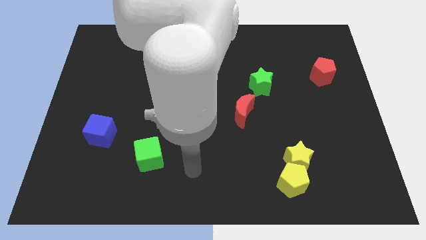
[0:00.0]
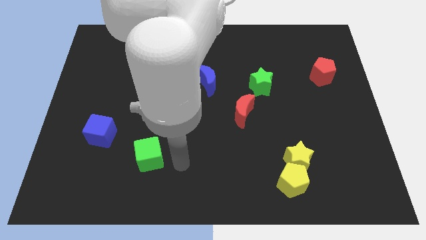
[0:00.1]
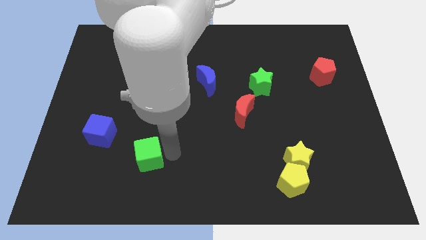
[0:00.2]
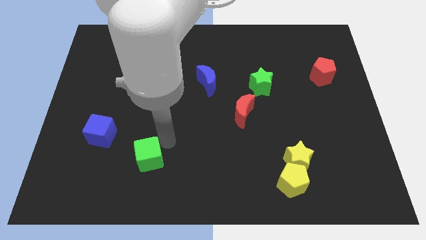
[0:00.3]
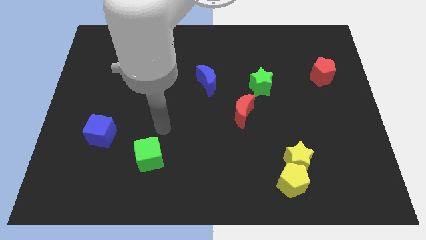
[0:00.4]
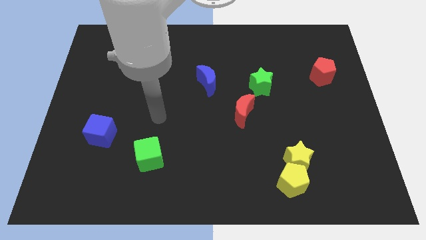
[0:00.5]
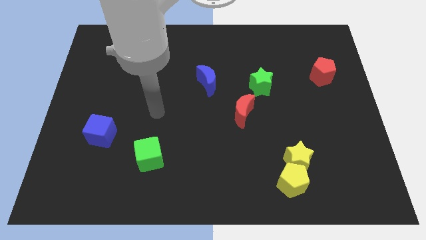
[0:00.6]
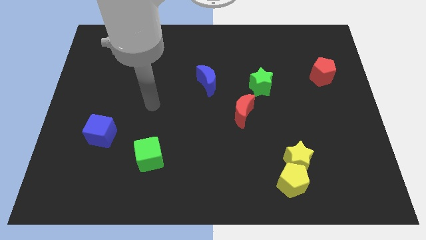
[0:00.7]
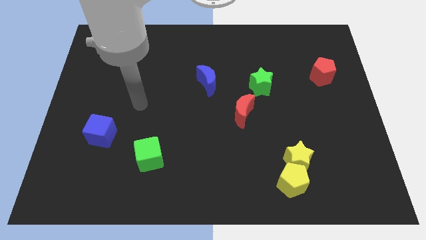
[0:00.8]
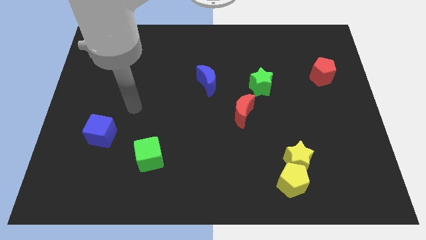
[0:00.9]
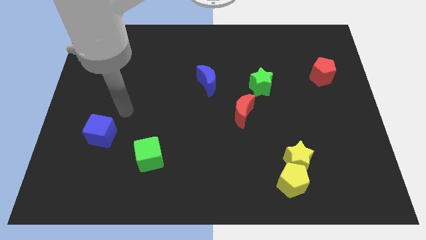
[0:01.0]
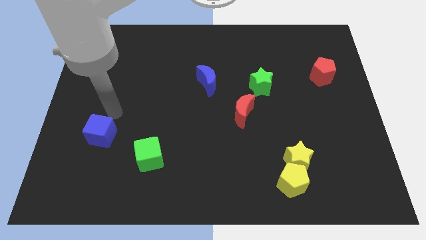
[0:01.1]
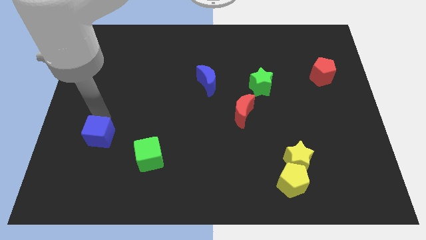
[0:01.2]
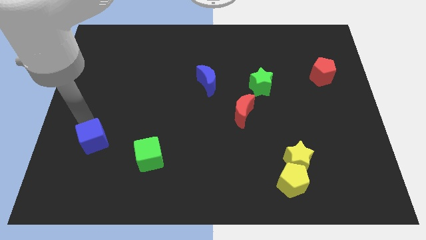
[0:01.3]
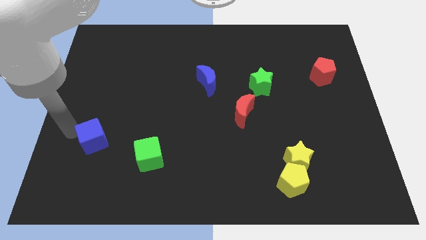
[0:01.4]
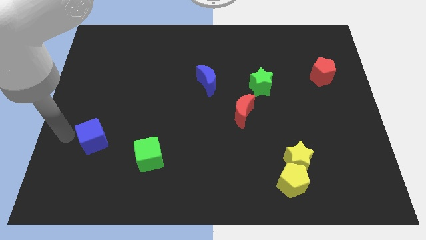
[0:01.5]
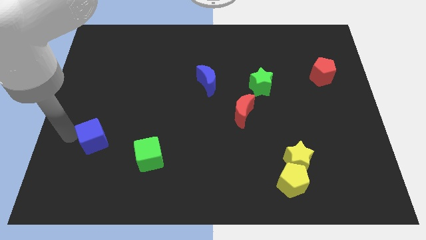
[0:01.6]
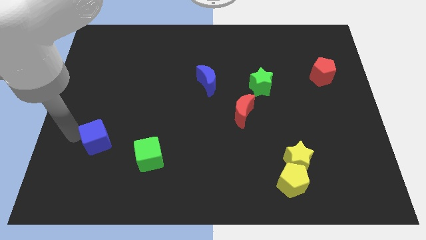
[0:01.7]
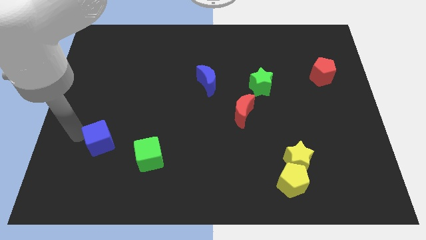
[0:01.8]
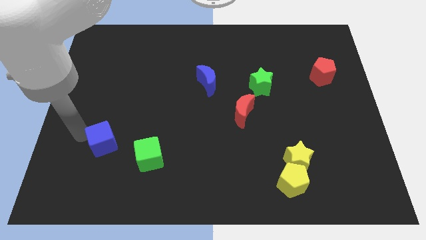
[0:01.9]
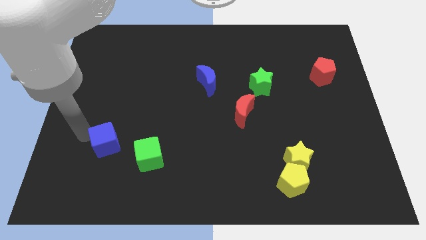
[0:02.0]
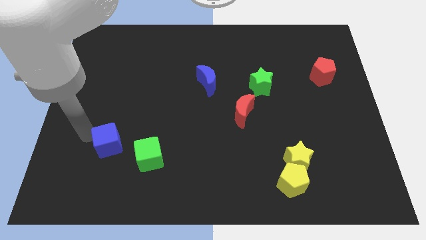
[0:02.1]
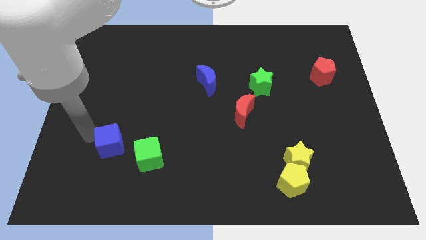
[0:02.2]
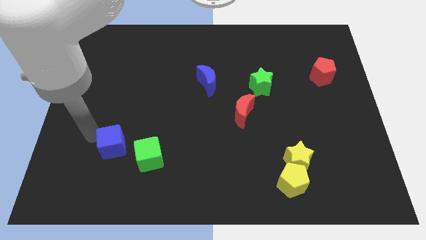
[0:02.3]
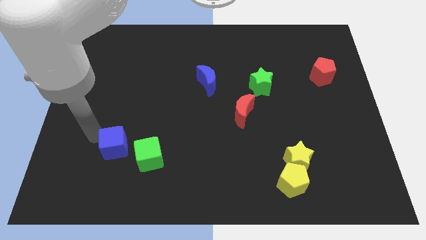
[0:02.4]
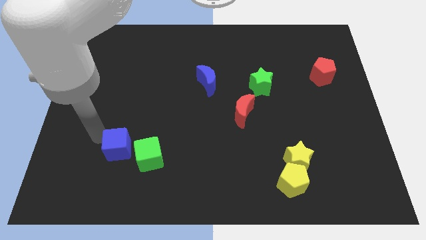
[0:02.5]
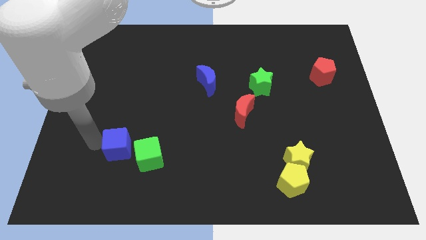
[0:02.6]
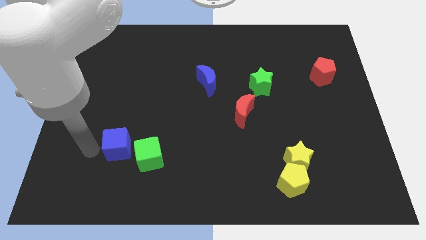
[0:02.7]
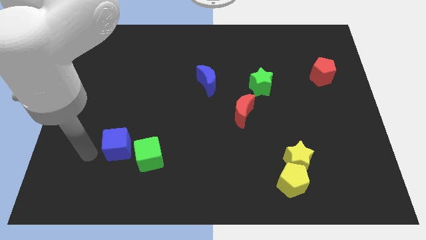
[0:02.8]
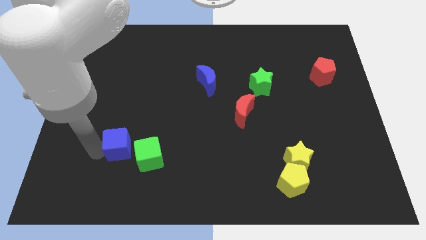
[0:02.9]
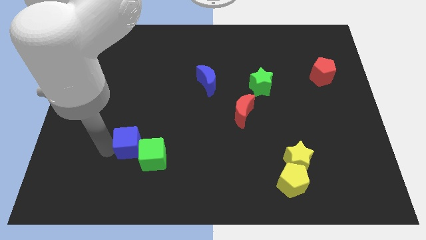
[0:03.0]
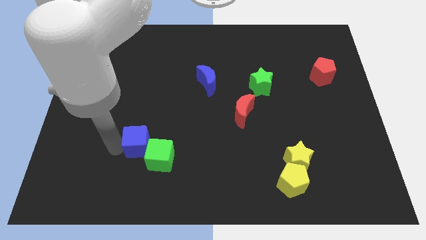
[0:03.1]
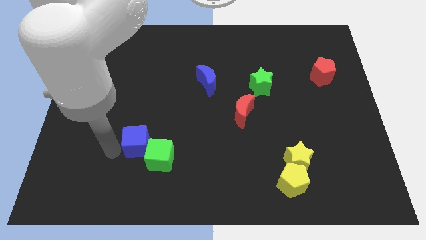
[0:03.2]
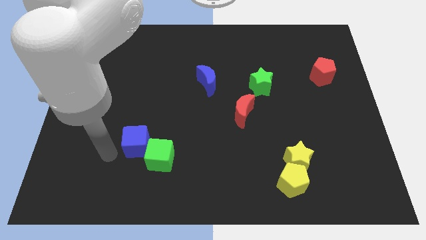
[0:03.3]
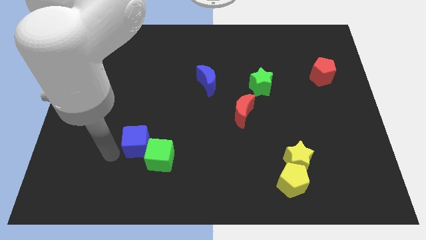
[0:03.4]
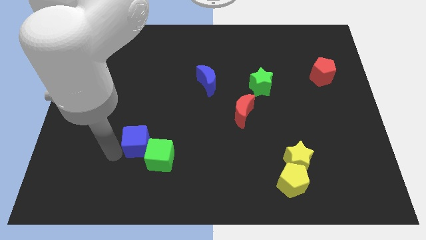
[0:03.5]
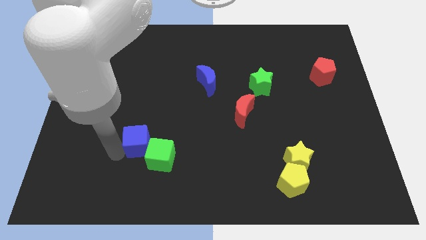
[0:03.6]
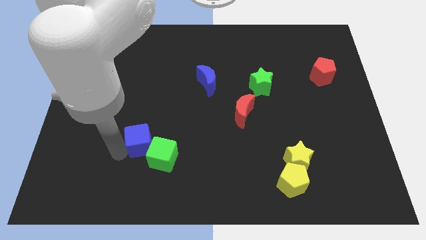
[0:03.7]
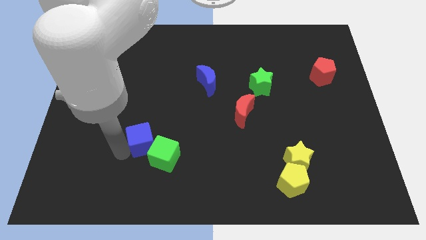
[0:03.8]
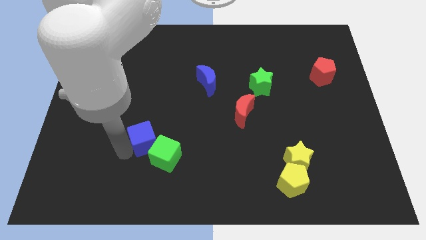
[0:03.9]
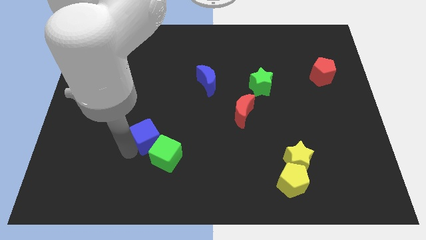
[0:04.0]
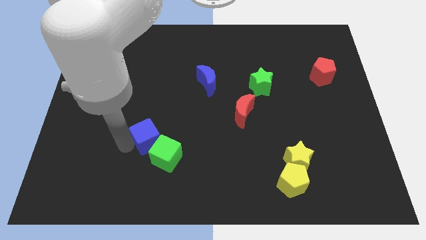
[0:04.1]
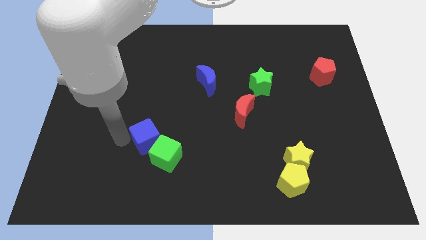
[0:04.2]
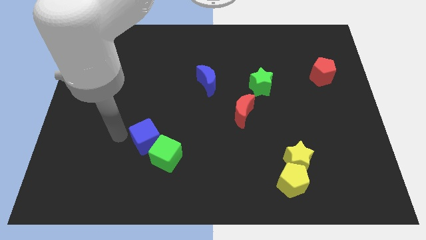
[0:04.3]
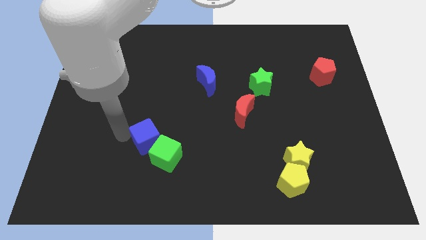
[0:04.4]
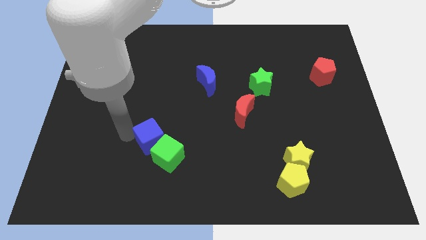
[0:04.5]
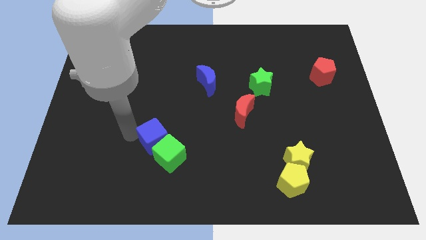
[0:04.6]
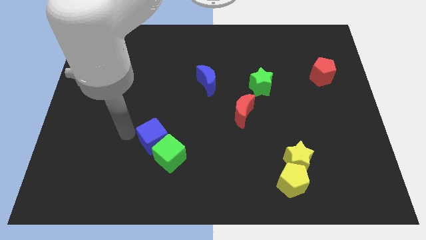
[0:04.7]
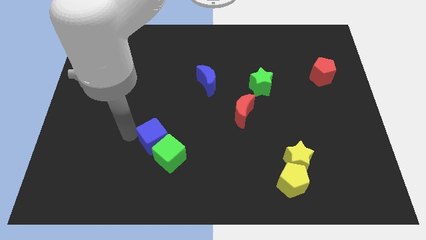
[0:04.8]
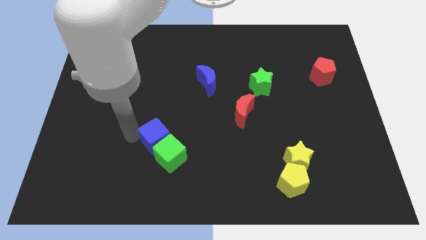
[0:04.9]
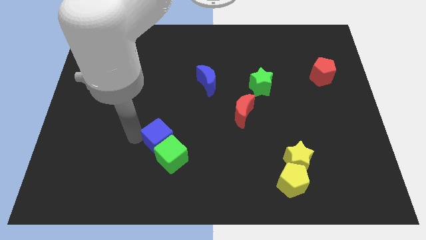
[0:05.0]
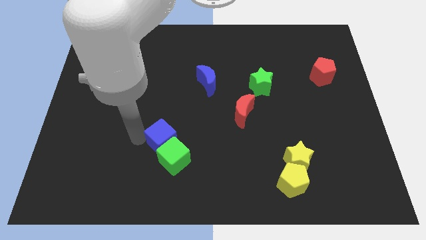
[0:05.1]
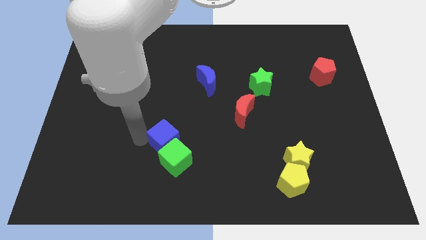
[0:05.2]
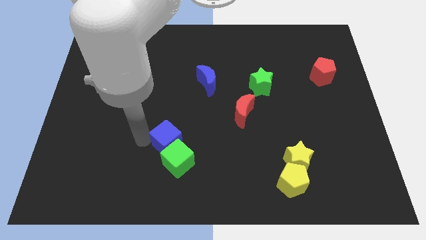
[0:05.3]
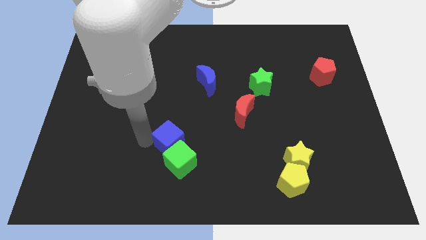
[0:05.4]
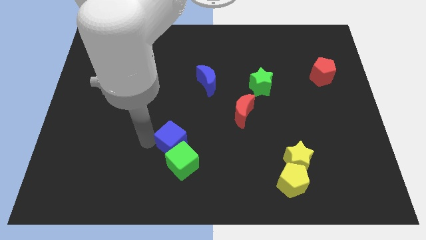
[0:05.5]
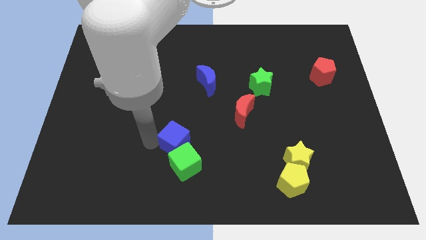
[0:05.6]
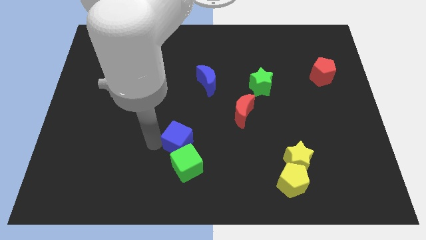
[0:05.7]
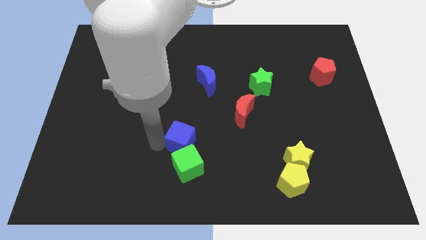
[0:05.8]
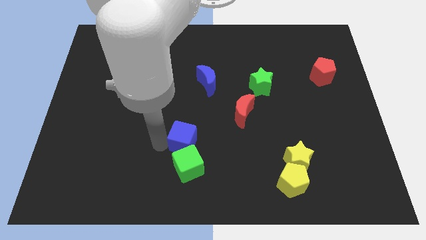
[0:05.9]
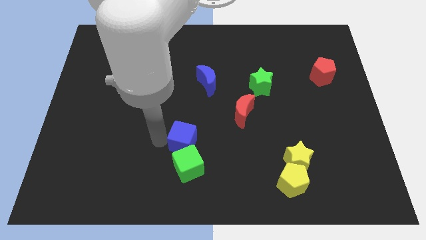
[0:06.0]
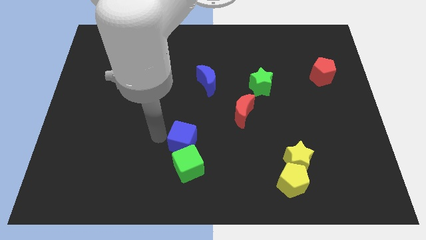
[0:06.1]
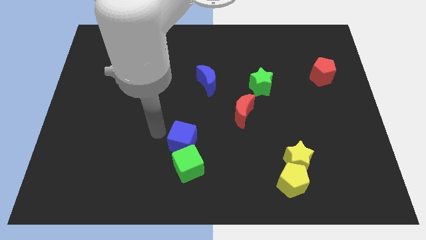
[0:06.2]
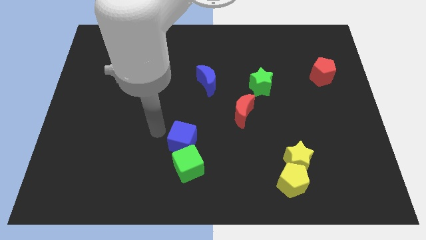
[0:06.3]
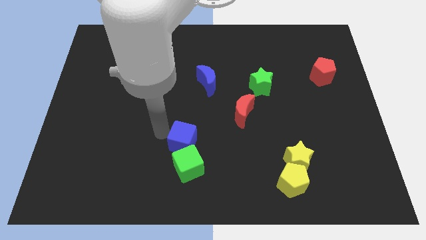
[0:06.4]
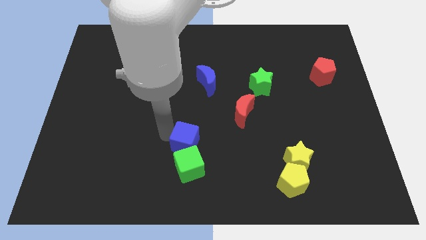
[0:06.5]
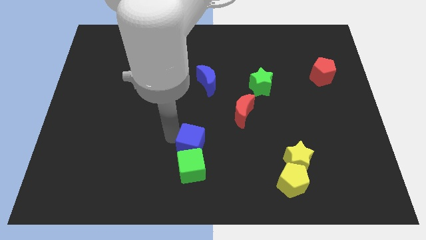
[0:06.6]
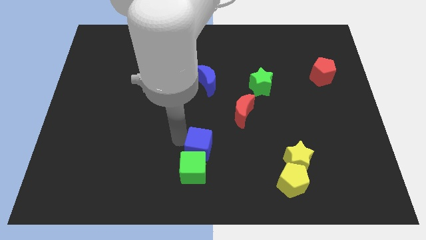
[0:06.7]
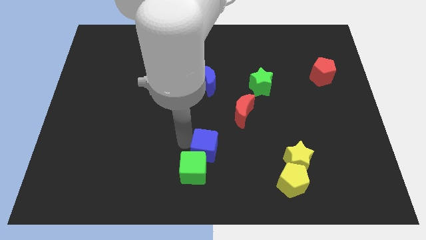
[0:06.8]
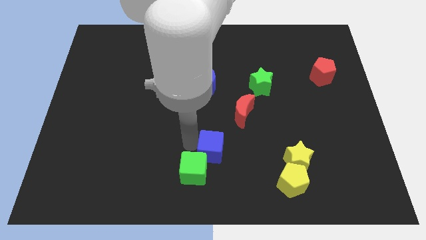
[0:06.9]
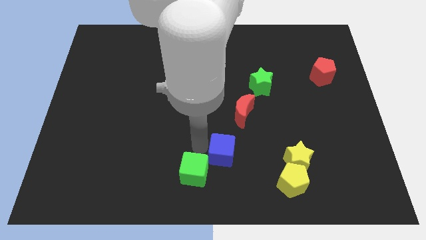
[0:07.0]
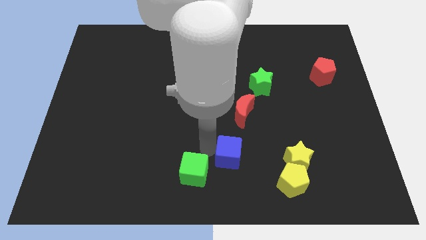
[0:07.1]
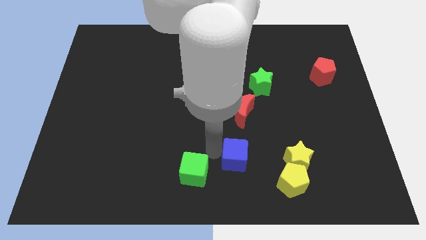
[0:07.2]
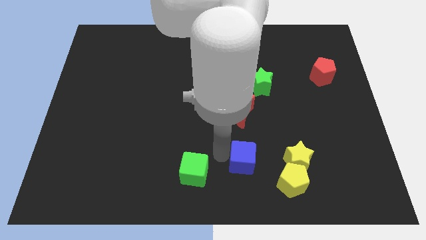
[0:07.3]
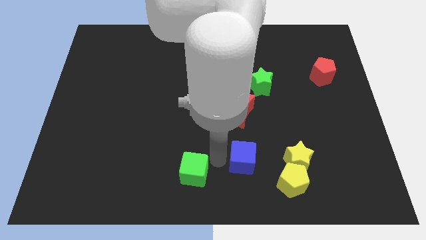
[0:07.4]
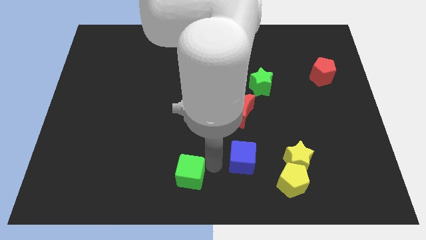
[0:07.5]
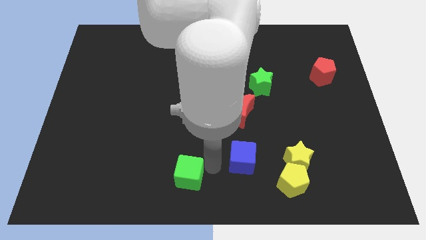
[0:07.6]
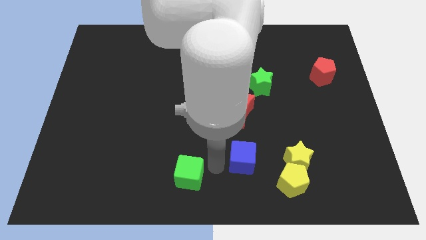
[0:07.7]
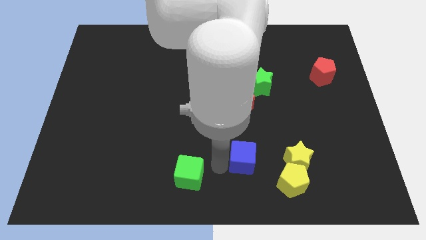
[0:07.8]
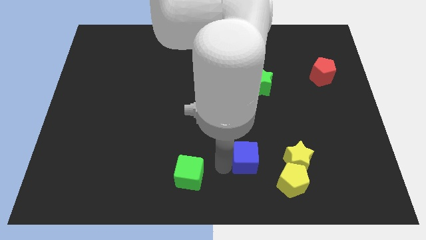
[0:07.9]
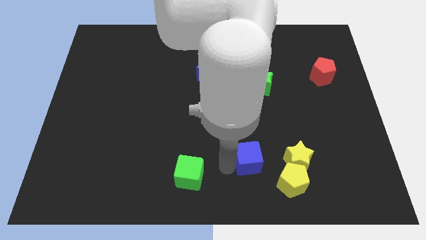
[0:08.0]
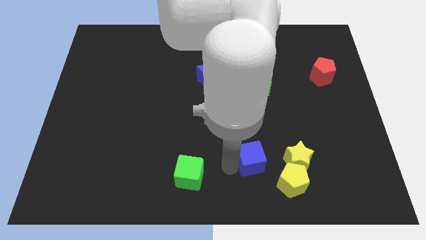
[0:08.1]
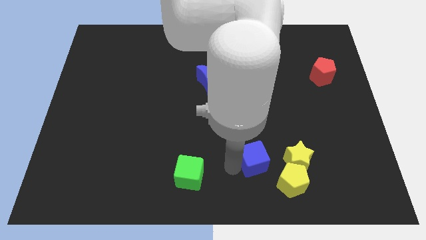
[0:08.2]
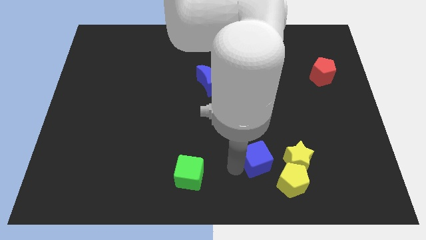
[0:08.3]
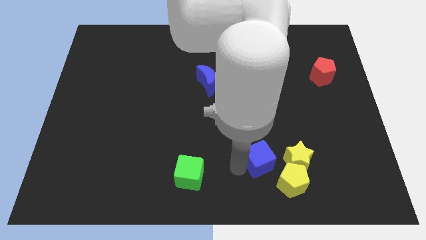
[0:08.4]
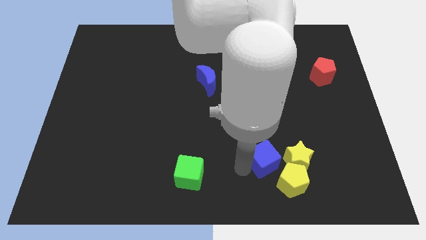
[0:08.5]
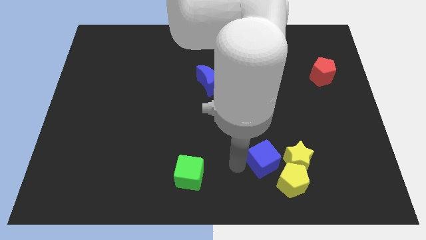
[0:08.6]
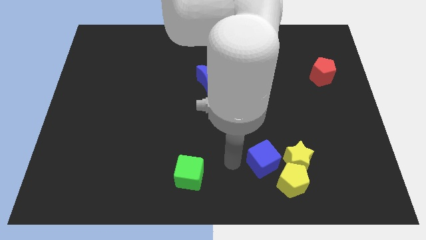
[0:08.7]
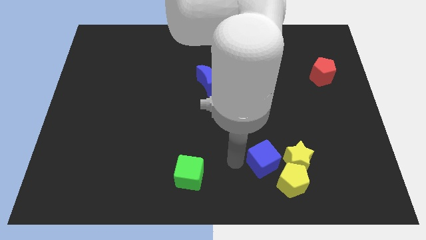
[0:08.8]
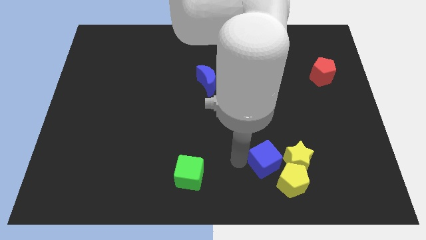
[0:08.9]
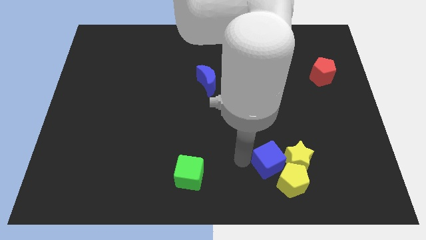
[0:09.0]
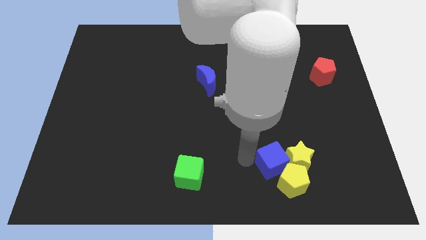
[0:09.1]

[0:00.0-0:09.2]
move the blue cube next to the yellow star
